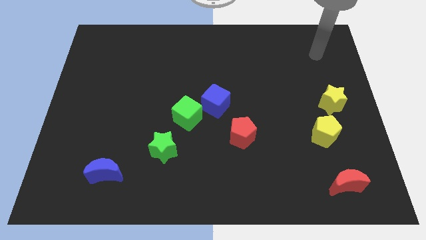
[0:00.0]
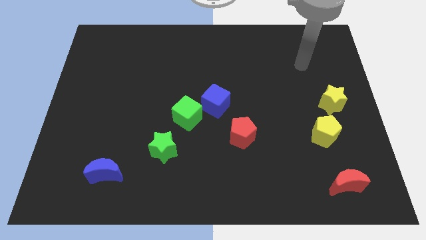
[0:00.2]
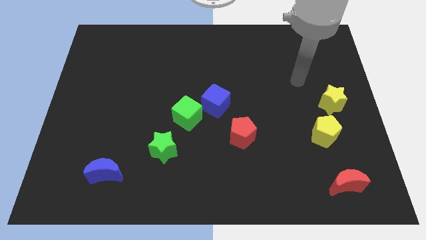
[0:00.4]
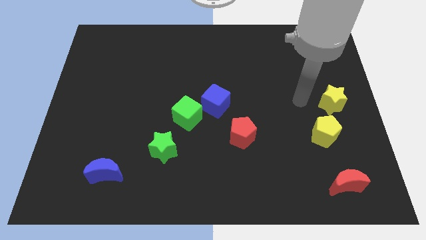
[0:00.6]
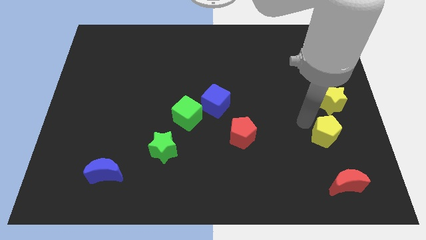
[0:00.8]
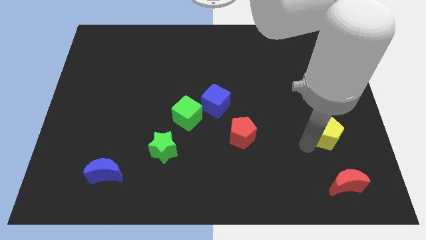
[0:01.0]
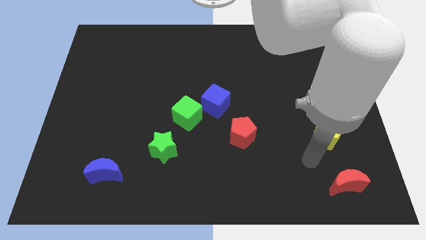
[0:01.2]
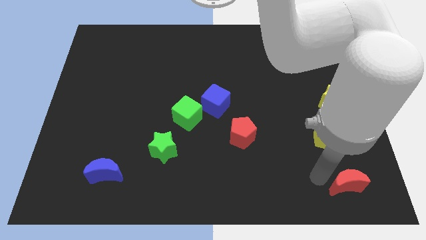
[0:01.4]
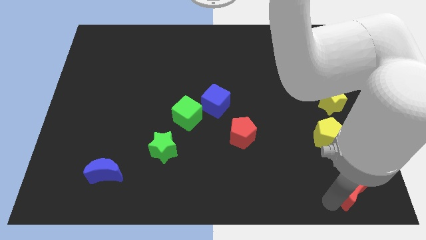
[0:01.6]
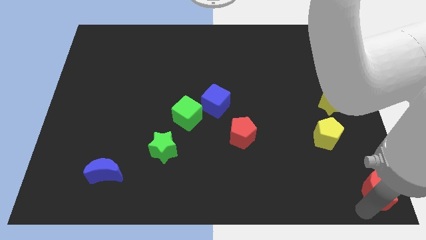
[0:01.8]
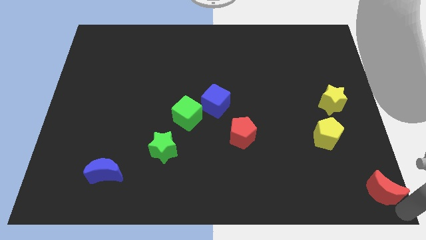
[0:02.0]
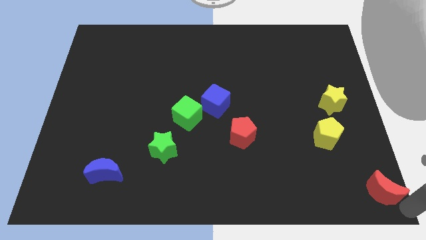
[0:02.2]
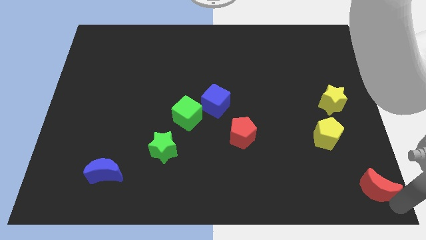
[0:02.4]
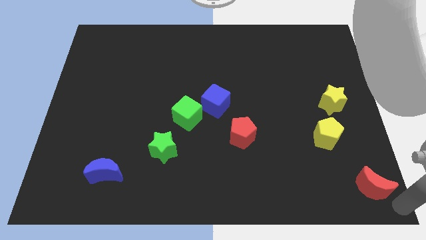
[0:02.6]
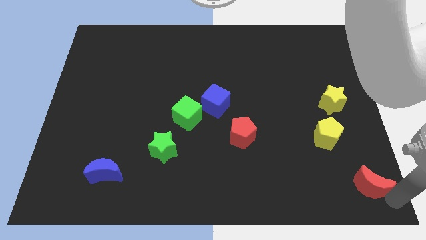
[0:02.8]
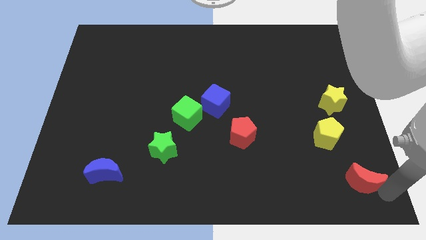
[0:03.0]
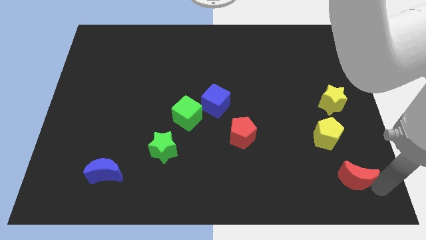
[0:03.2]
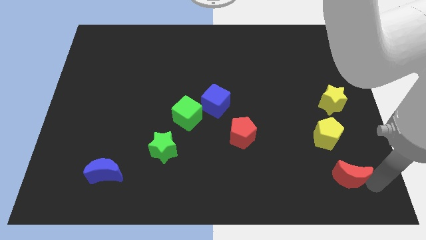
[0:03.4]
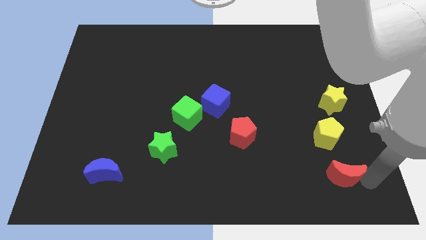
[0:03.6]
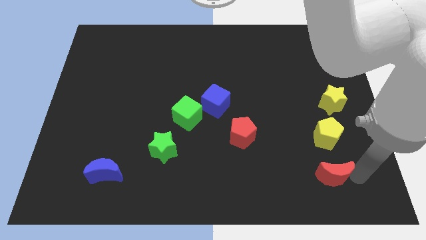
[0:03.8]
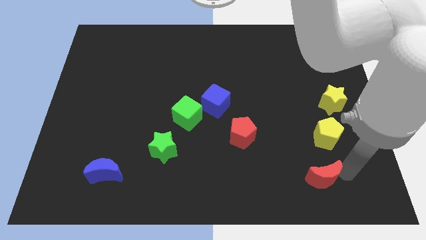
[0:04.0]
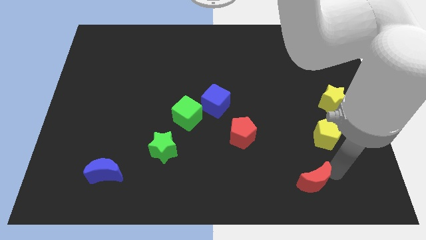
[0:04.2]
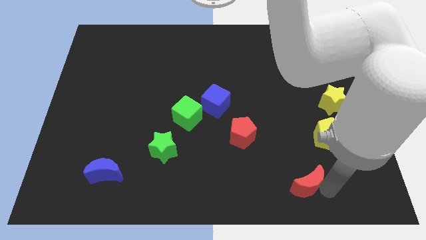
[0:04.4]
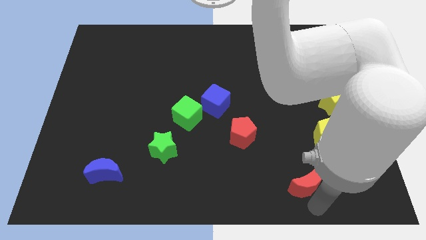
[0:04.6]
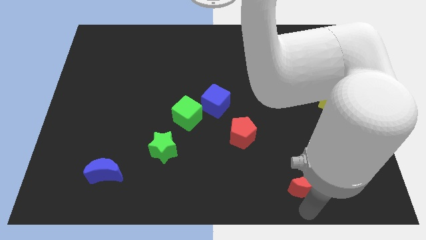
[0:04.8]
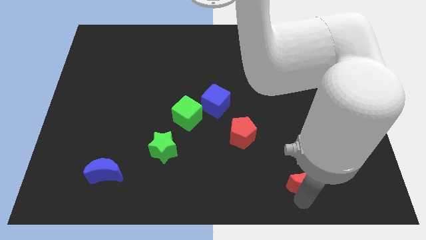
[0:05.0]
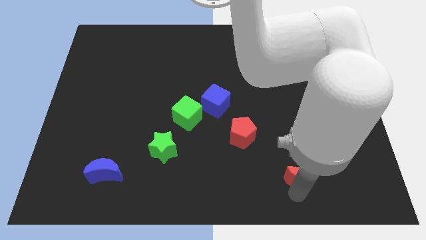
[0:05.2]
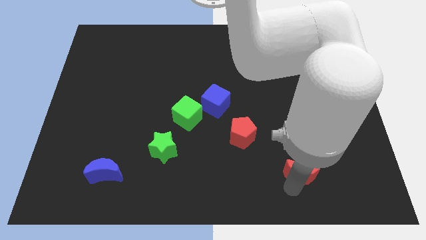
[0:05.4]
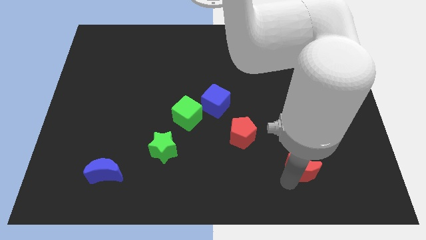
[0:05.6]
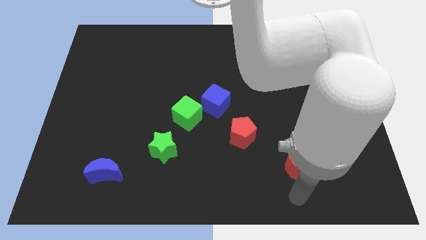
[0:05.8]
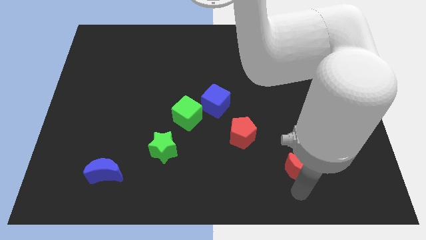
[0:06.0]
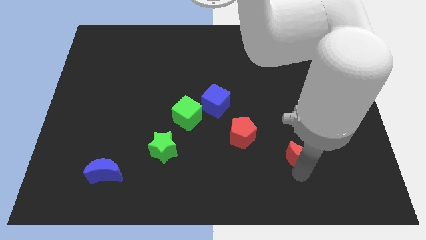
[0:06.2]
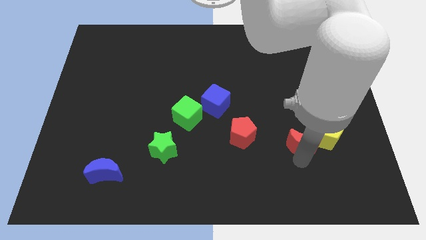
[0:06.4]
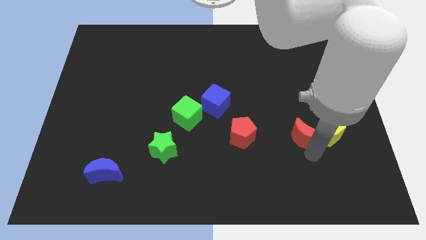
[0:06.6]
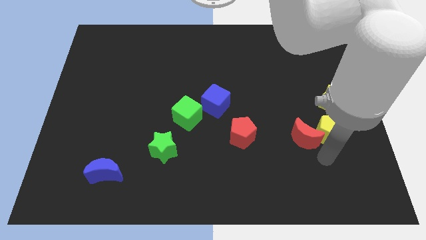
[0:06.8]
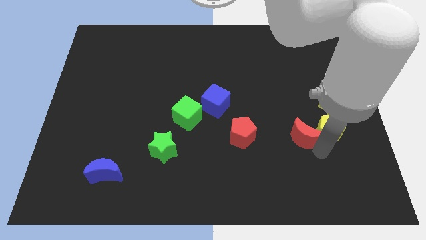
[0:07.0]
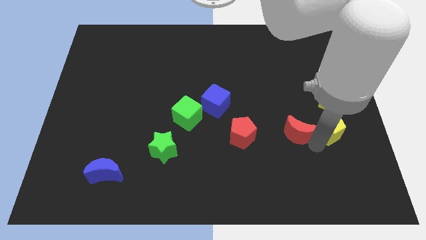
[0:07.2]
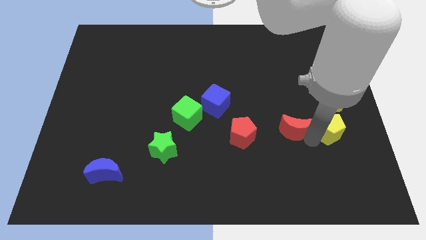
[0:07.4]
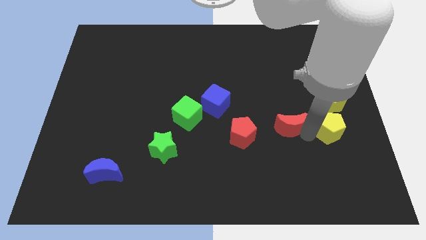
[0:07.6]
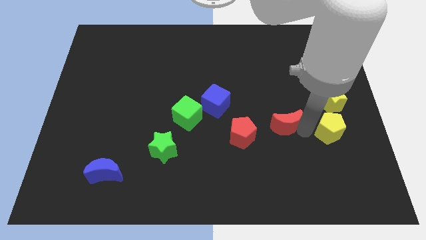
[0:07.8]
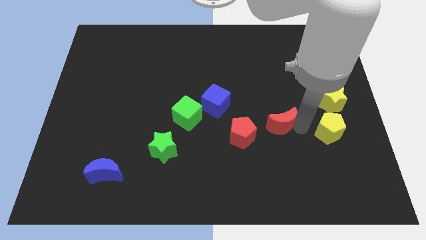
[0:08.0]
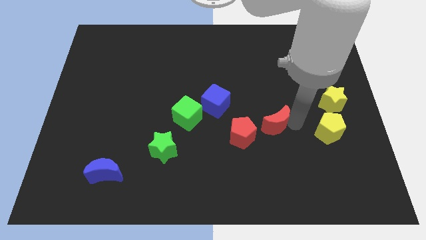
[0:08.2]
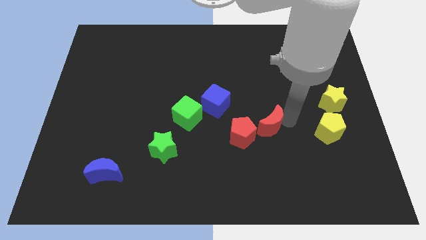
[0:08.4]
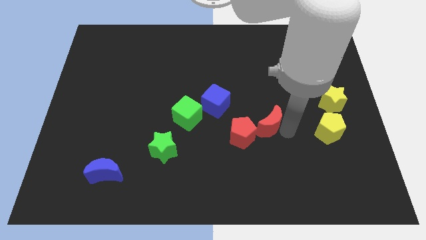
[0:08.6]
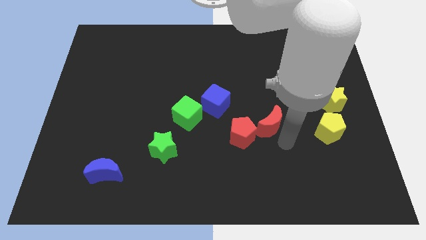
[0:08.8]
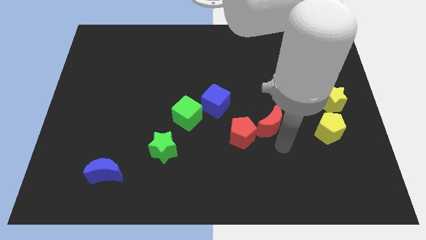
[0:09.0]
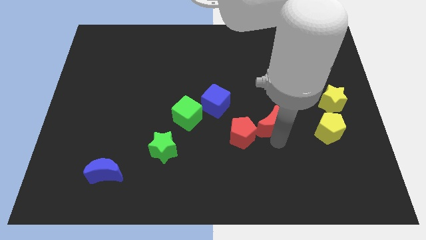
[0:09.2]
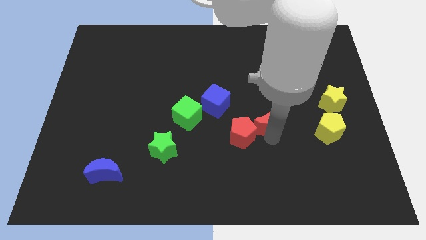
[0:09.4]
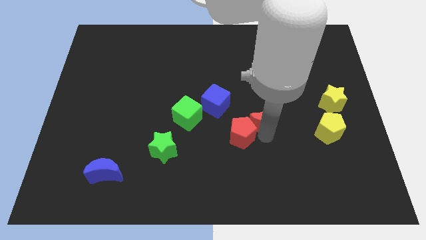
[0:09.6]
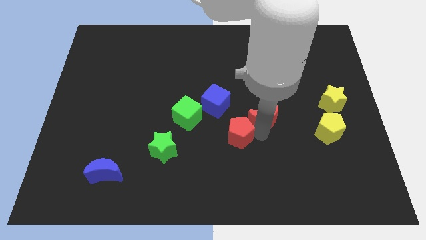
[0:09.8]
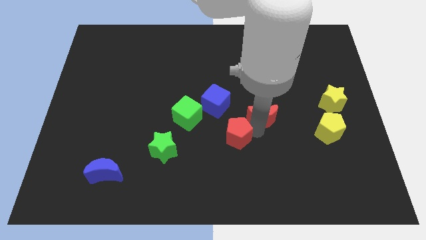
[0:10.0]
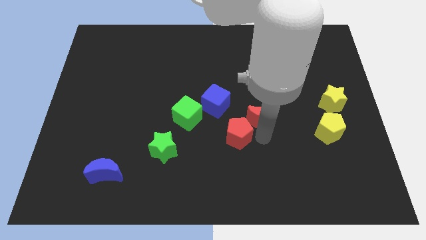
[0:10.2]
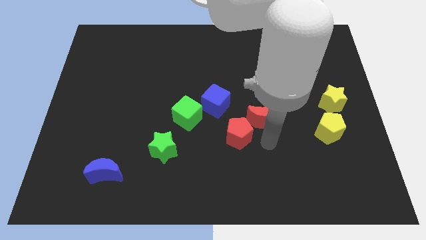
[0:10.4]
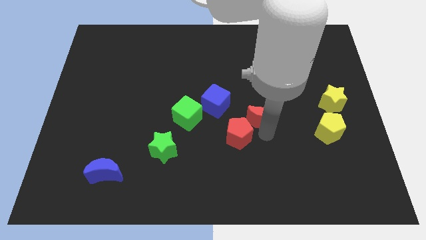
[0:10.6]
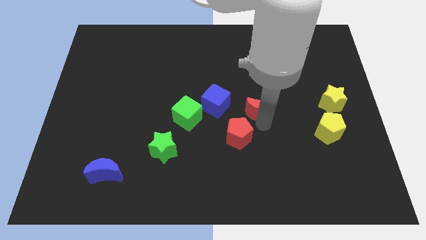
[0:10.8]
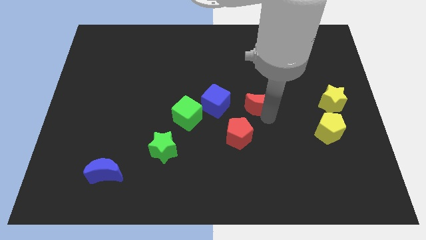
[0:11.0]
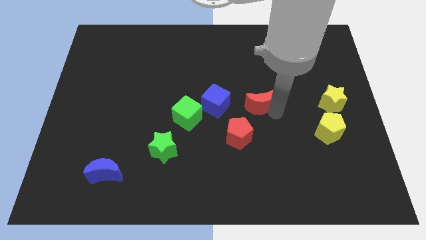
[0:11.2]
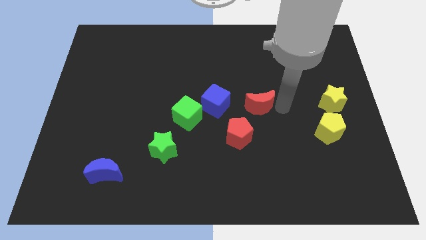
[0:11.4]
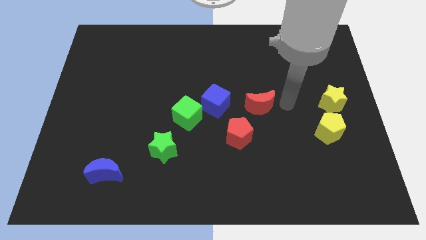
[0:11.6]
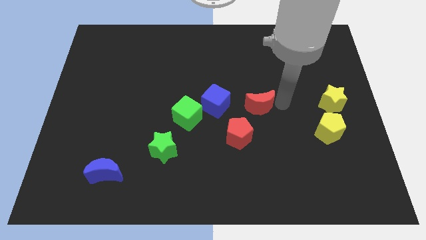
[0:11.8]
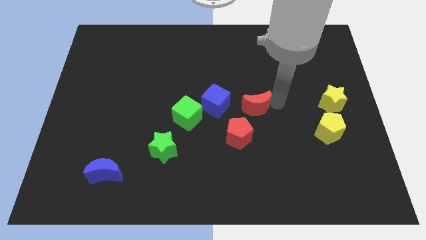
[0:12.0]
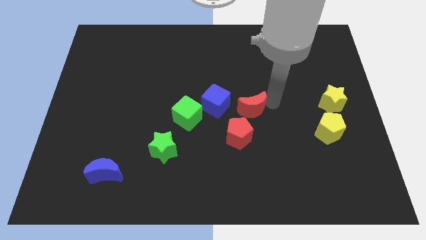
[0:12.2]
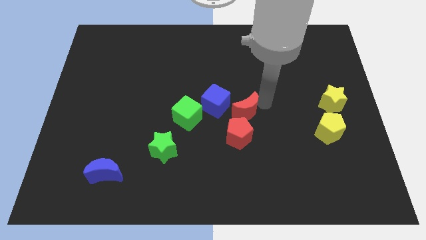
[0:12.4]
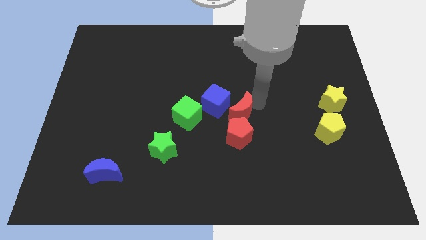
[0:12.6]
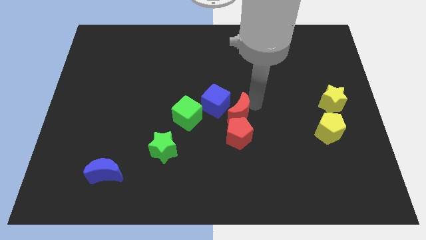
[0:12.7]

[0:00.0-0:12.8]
move the red moon next to the blue cube
